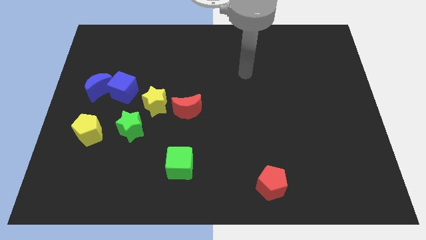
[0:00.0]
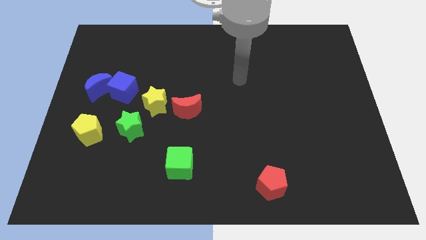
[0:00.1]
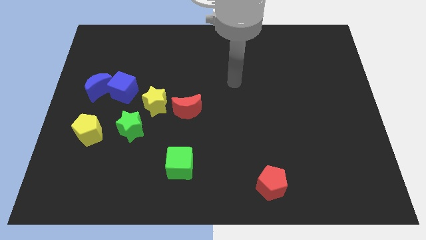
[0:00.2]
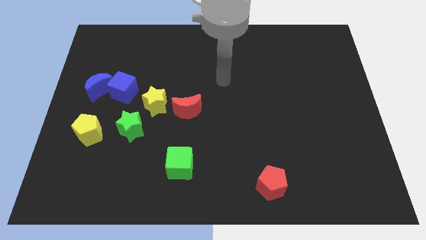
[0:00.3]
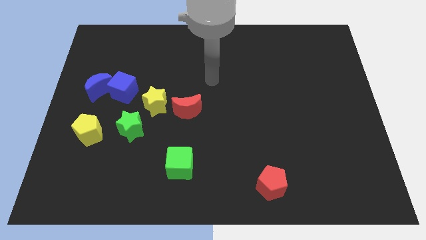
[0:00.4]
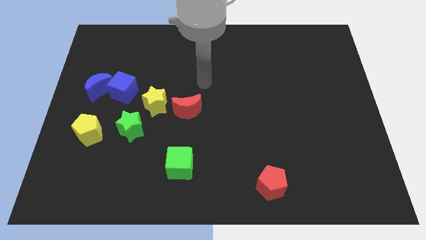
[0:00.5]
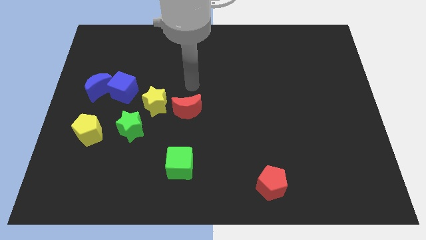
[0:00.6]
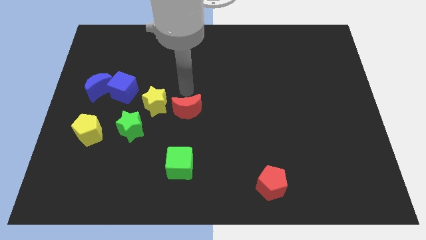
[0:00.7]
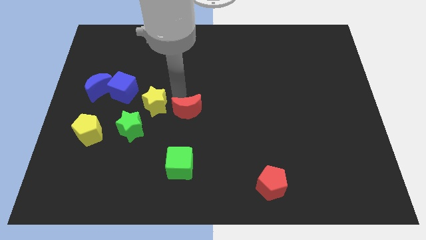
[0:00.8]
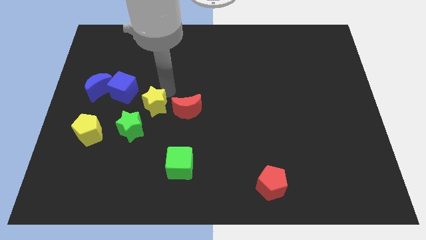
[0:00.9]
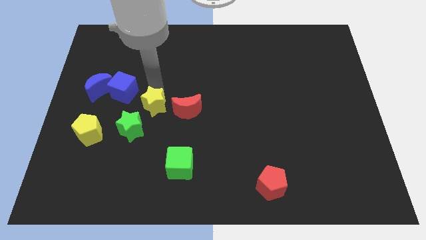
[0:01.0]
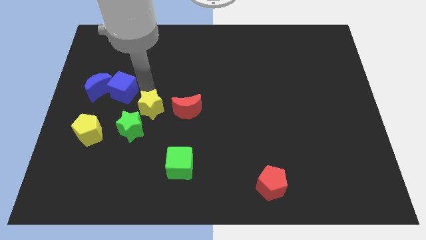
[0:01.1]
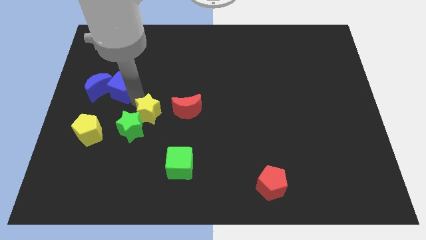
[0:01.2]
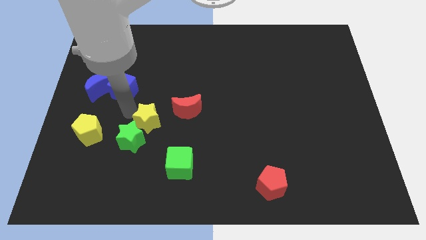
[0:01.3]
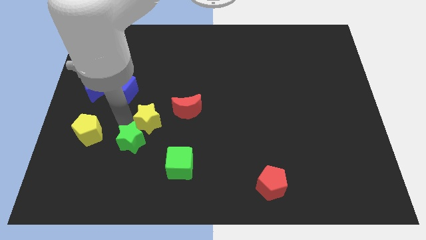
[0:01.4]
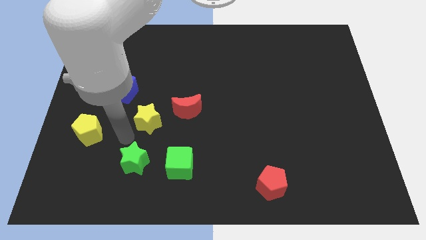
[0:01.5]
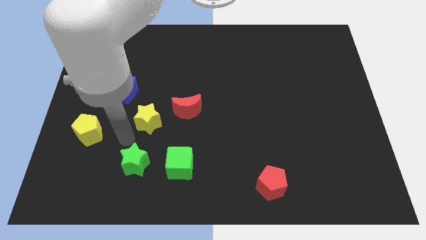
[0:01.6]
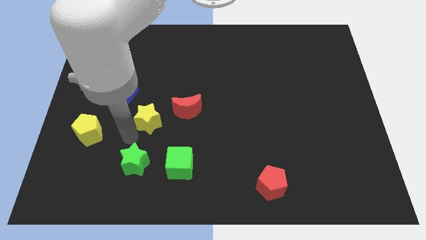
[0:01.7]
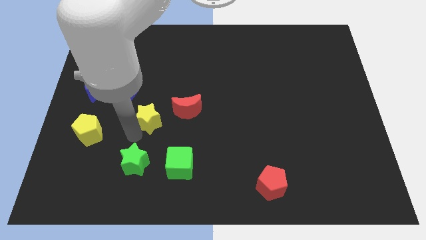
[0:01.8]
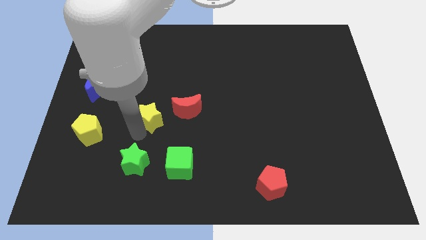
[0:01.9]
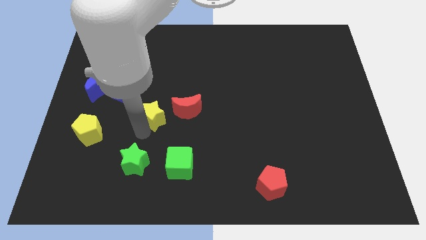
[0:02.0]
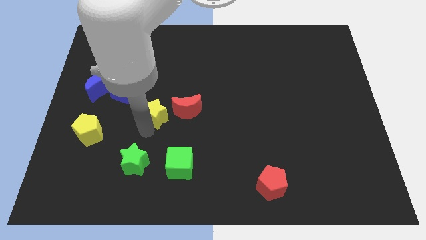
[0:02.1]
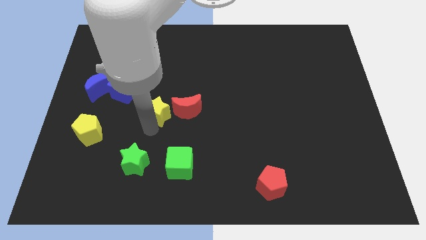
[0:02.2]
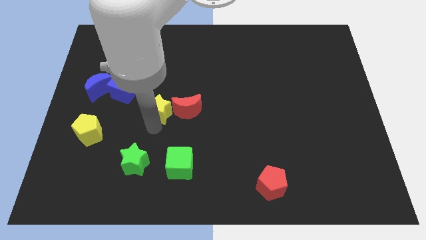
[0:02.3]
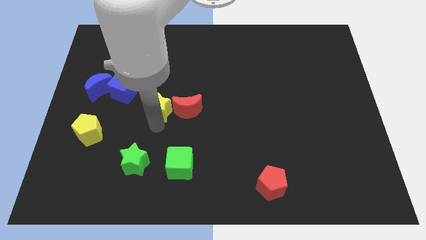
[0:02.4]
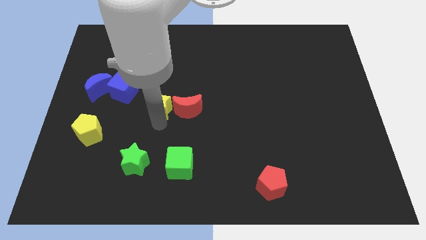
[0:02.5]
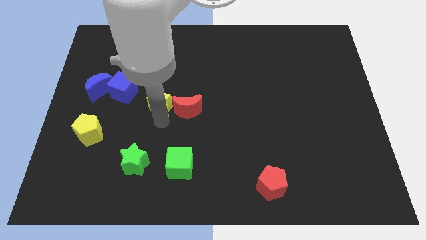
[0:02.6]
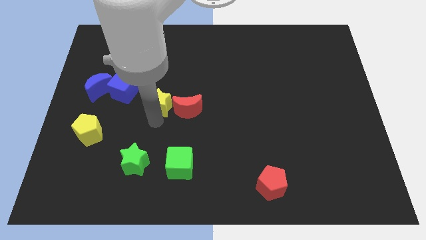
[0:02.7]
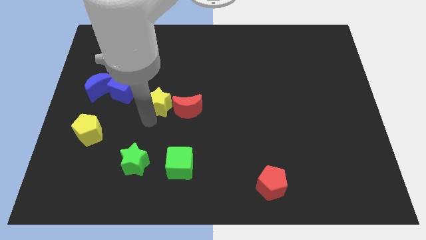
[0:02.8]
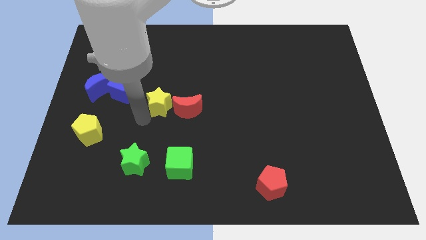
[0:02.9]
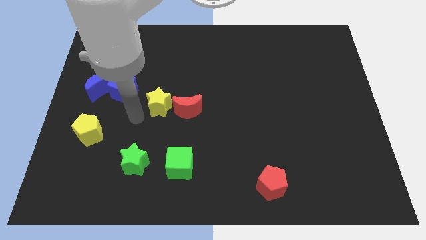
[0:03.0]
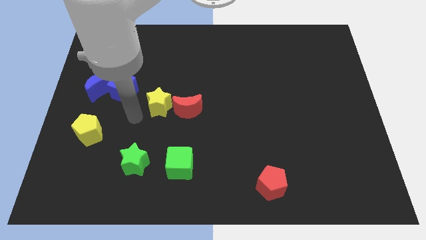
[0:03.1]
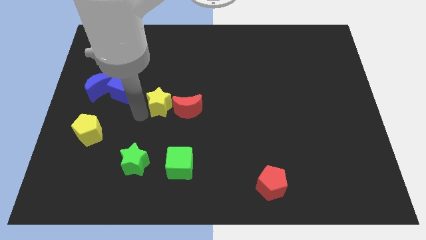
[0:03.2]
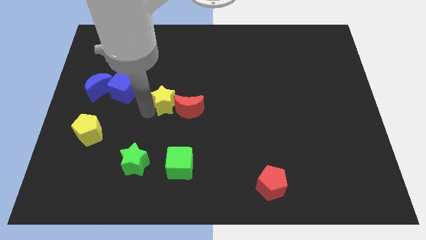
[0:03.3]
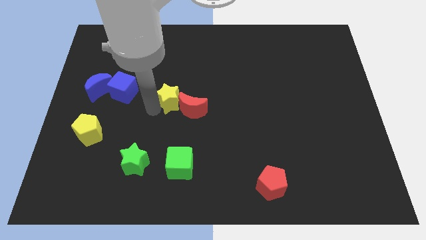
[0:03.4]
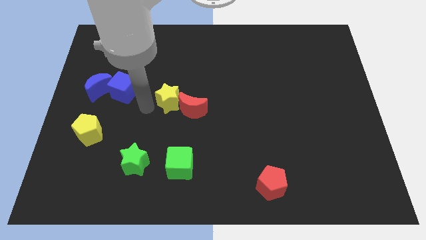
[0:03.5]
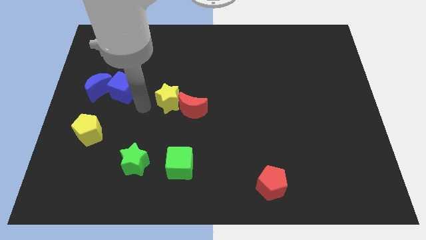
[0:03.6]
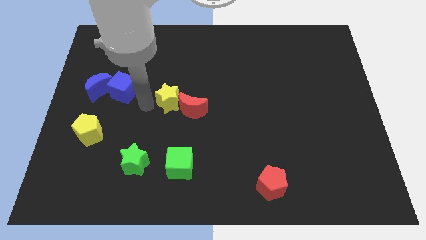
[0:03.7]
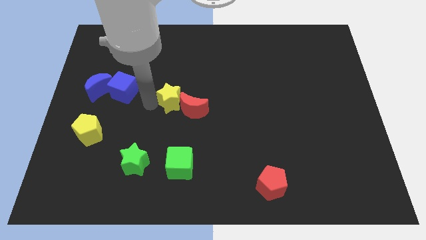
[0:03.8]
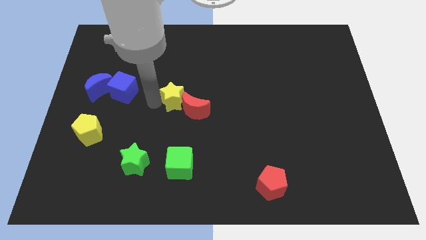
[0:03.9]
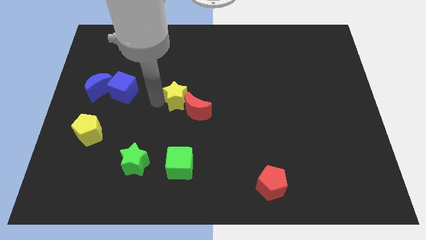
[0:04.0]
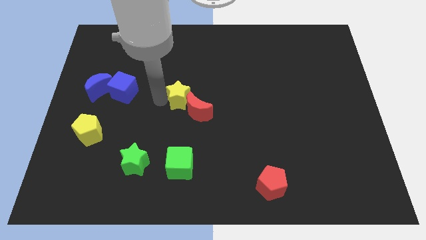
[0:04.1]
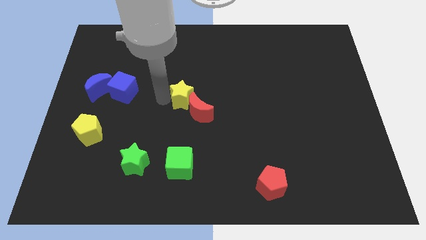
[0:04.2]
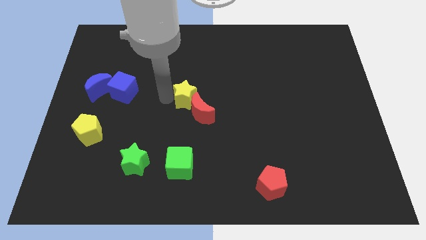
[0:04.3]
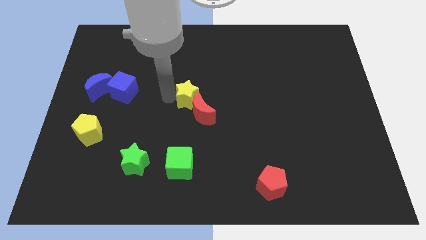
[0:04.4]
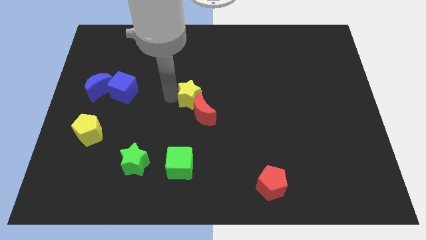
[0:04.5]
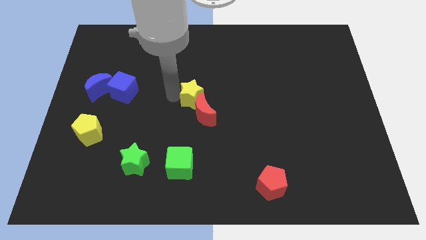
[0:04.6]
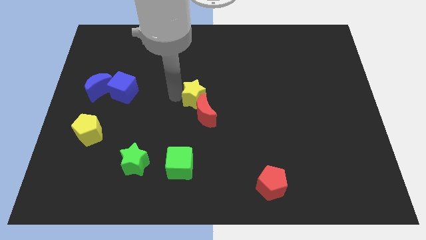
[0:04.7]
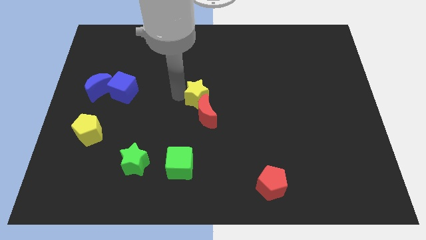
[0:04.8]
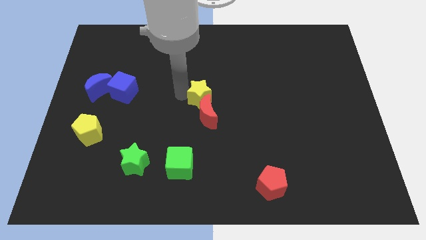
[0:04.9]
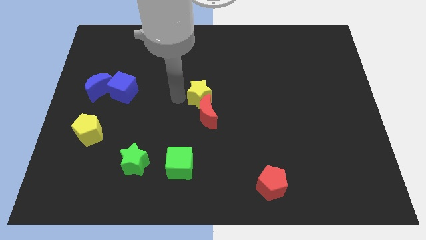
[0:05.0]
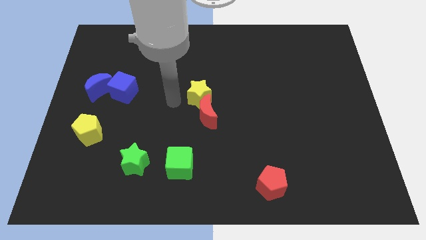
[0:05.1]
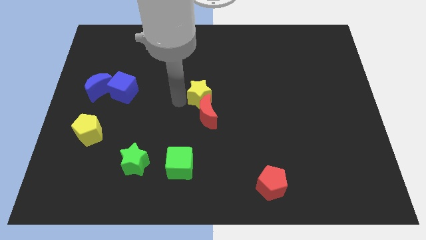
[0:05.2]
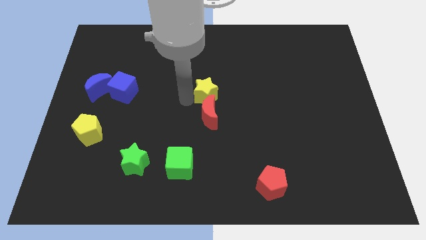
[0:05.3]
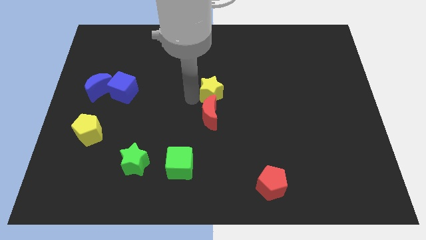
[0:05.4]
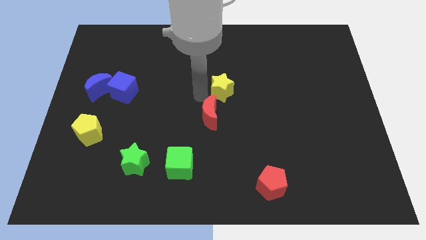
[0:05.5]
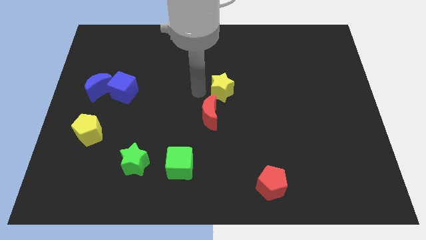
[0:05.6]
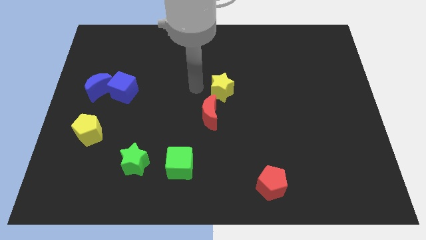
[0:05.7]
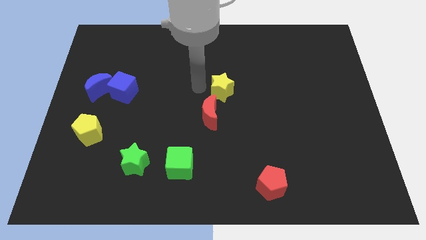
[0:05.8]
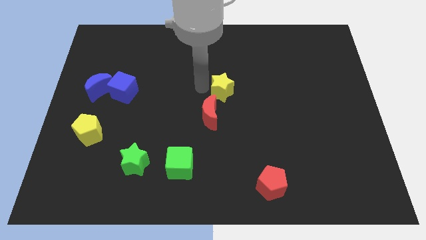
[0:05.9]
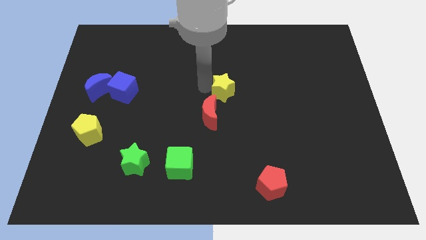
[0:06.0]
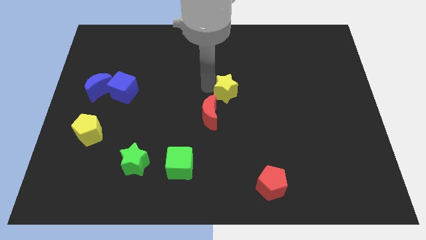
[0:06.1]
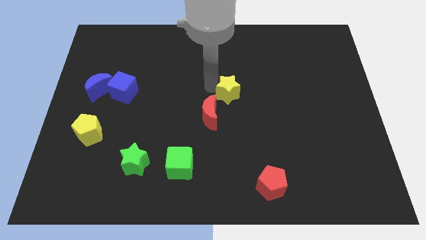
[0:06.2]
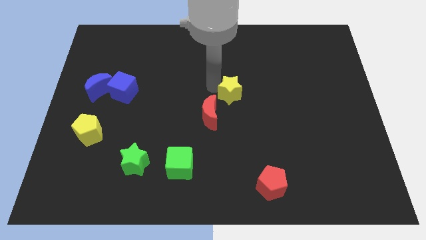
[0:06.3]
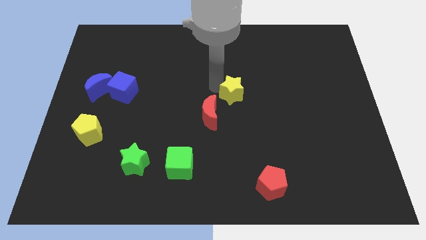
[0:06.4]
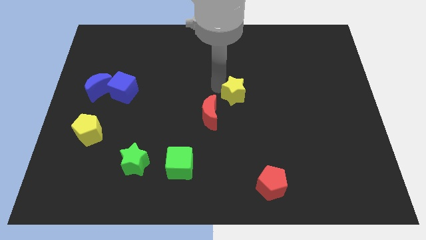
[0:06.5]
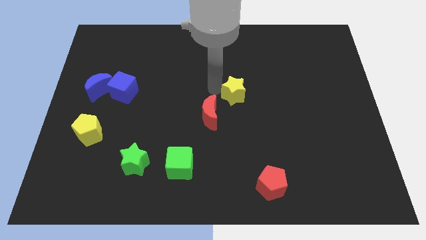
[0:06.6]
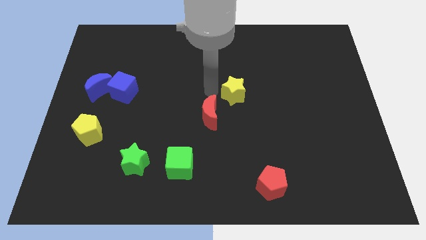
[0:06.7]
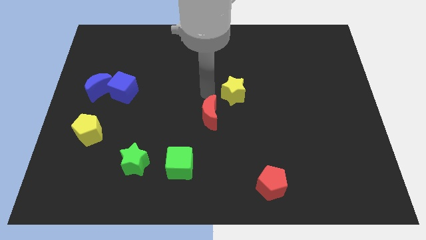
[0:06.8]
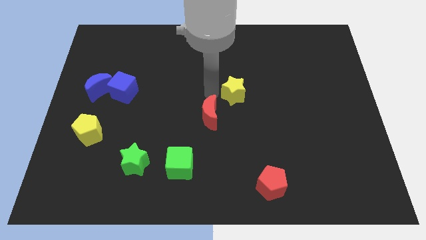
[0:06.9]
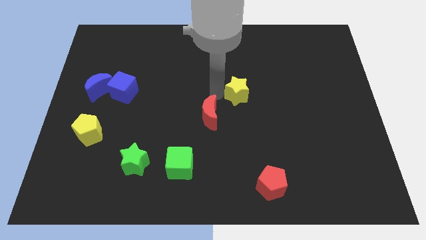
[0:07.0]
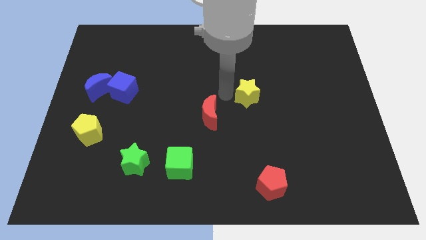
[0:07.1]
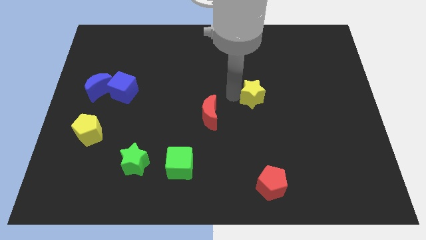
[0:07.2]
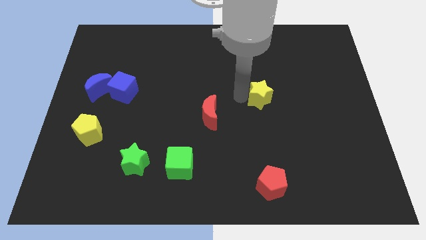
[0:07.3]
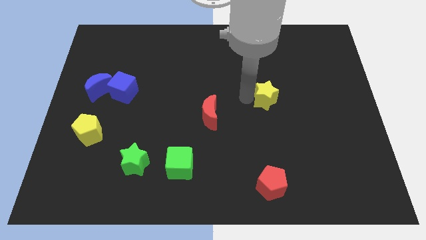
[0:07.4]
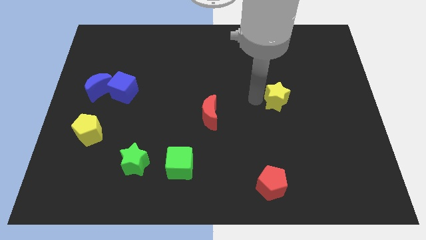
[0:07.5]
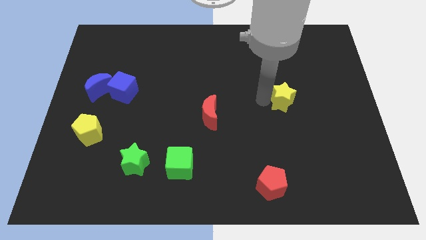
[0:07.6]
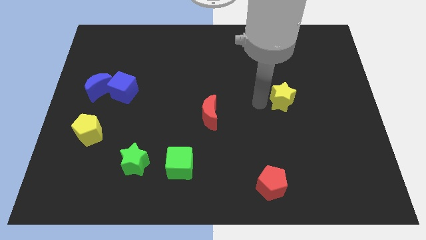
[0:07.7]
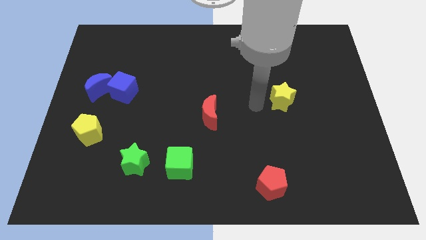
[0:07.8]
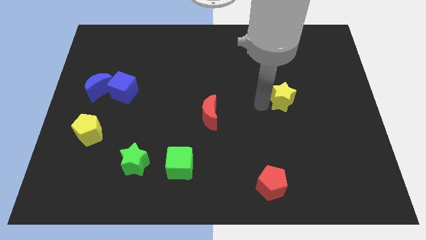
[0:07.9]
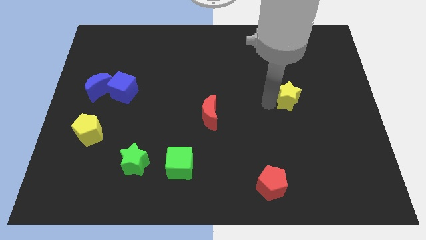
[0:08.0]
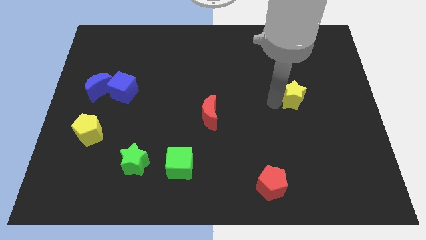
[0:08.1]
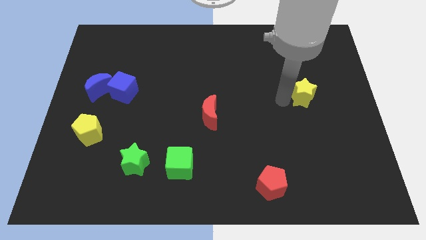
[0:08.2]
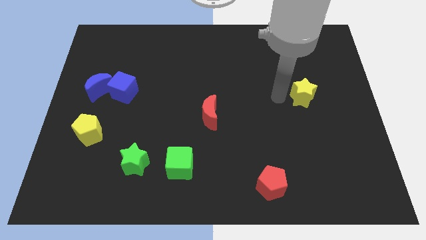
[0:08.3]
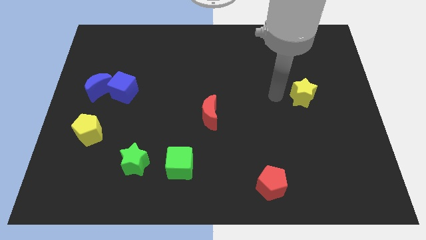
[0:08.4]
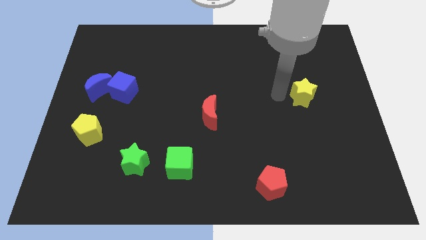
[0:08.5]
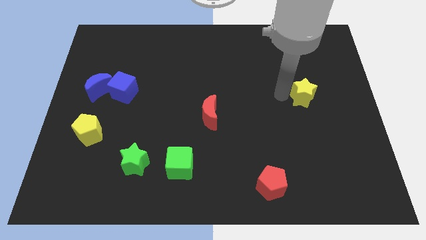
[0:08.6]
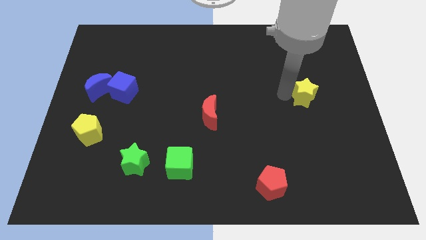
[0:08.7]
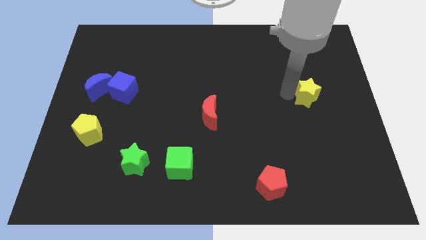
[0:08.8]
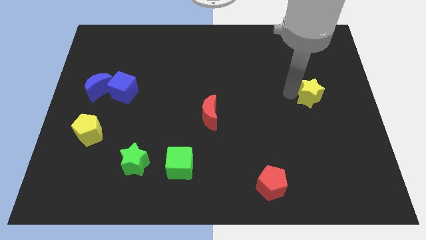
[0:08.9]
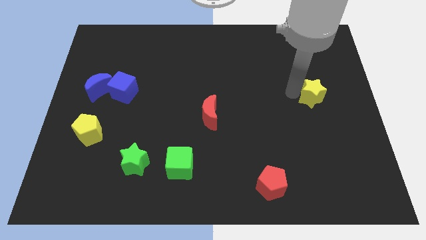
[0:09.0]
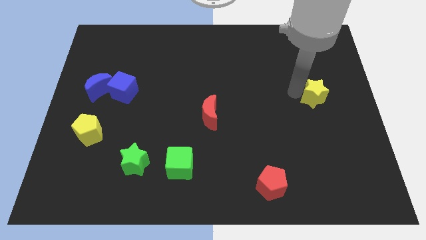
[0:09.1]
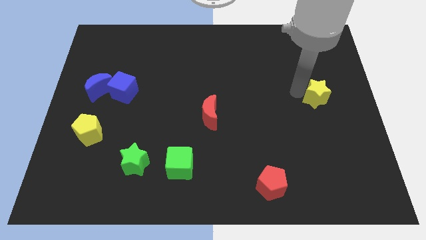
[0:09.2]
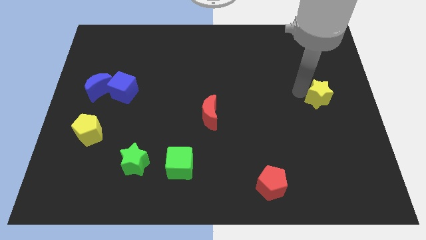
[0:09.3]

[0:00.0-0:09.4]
slide the yellow star to the right side of the board
